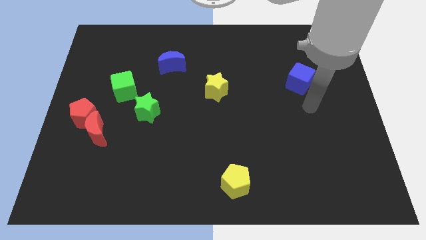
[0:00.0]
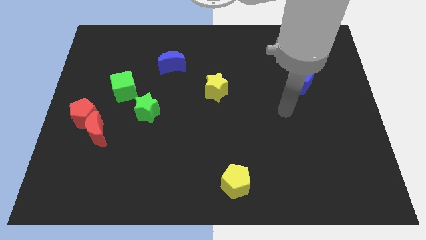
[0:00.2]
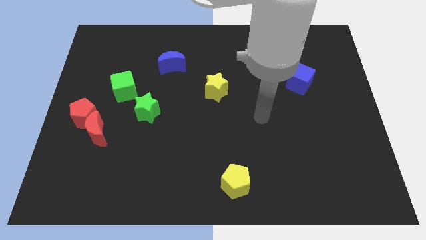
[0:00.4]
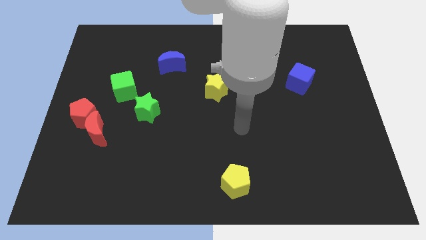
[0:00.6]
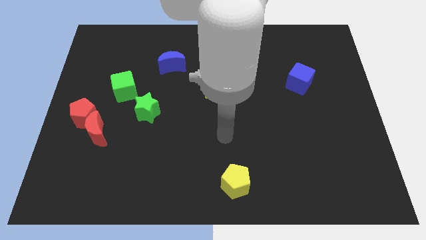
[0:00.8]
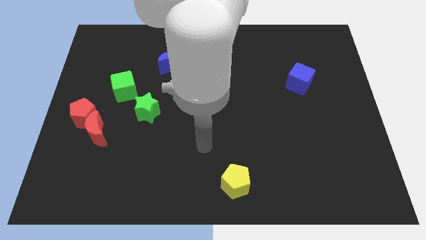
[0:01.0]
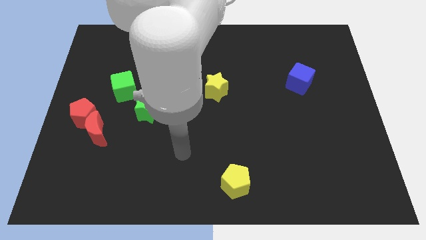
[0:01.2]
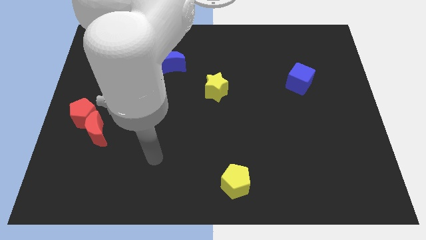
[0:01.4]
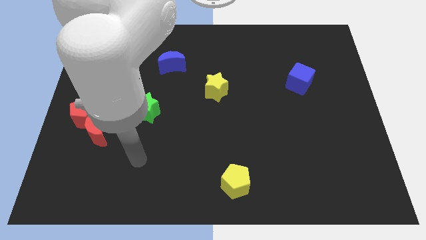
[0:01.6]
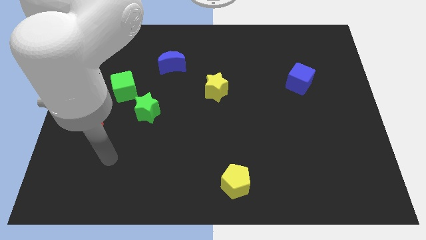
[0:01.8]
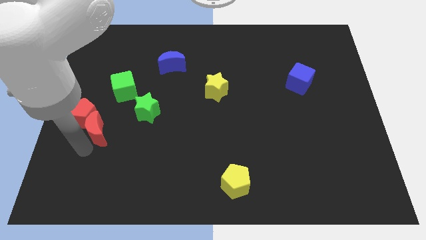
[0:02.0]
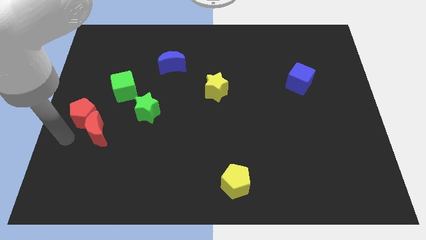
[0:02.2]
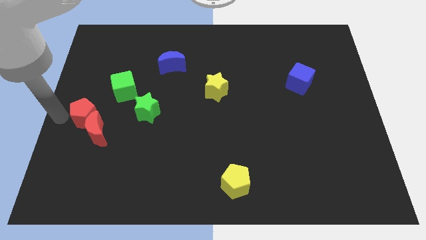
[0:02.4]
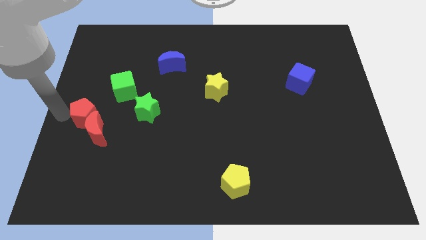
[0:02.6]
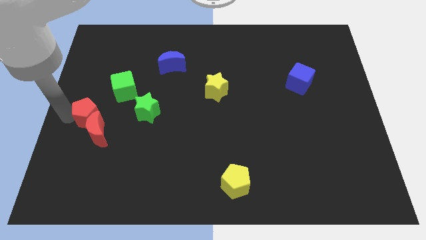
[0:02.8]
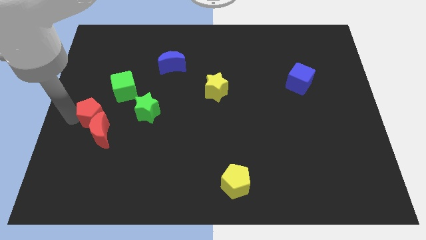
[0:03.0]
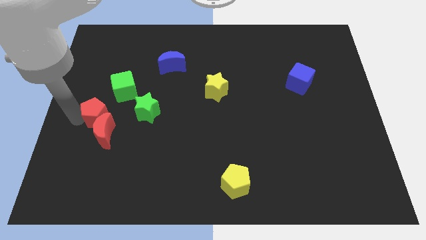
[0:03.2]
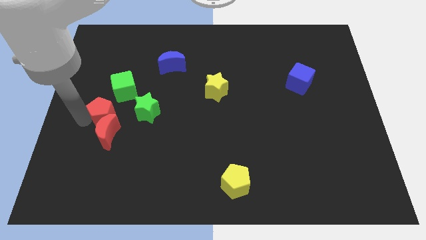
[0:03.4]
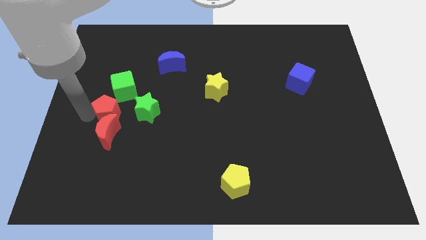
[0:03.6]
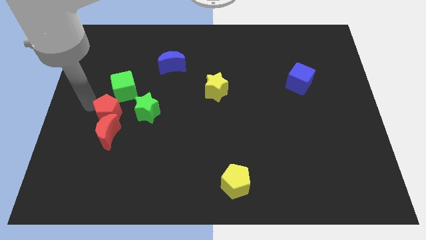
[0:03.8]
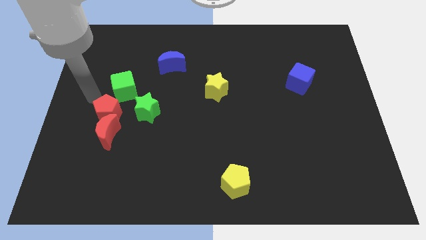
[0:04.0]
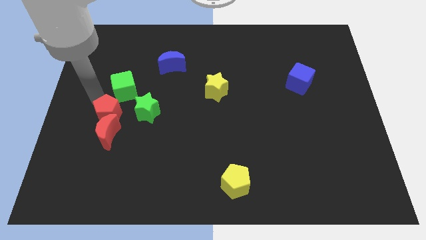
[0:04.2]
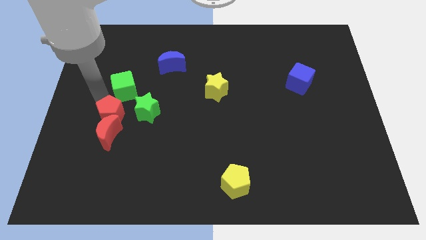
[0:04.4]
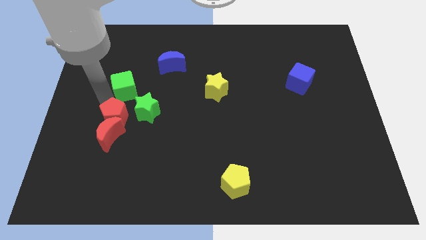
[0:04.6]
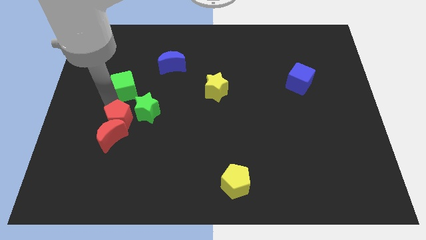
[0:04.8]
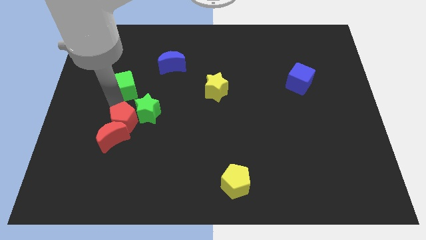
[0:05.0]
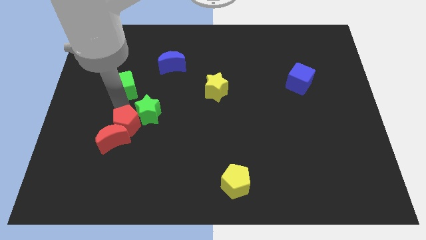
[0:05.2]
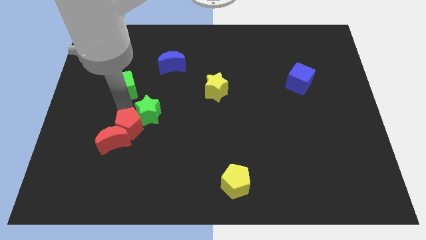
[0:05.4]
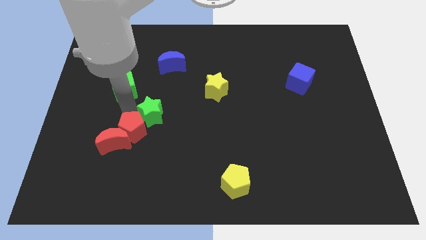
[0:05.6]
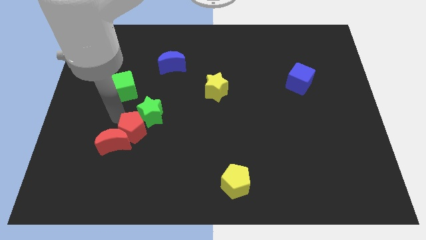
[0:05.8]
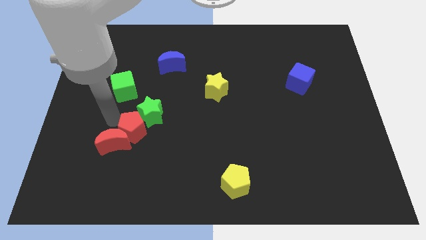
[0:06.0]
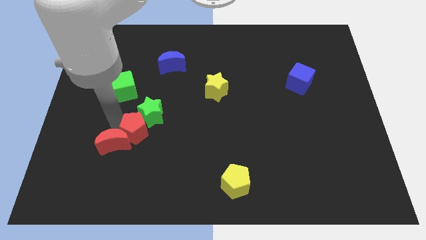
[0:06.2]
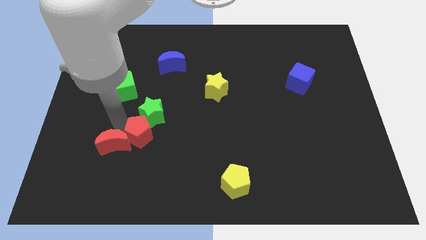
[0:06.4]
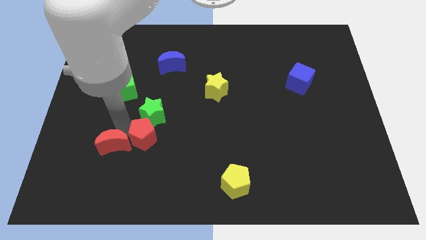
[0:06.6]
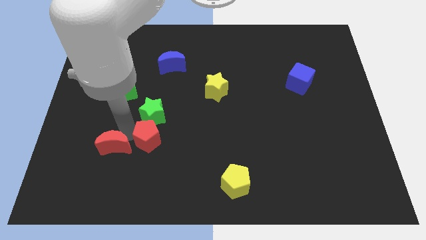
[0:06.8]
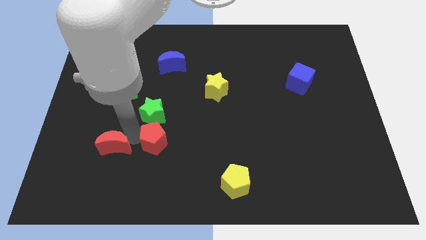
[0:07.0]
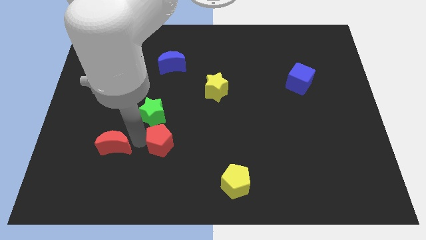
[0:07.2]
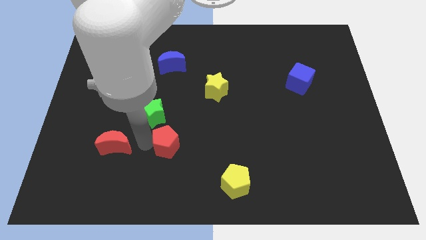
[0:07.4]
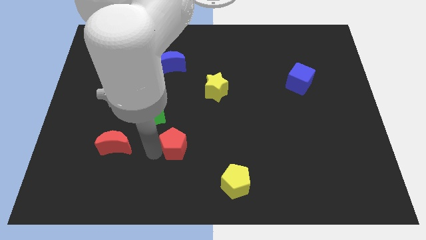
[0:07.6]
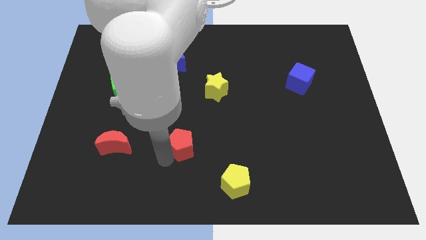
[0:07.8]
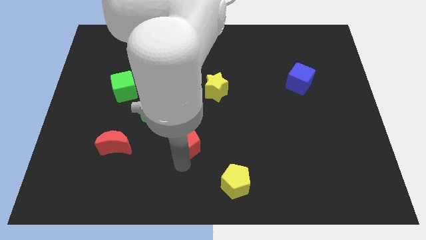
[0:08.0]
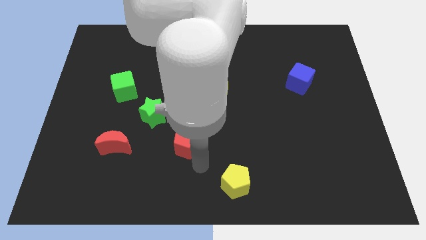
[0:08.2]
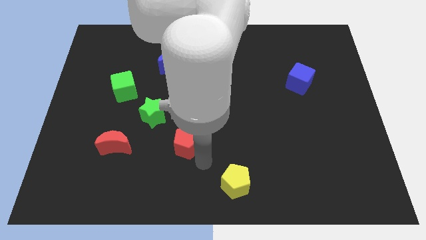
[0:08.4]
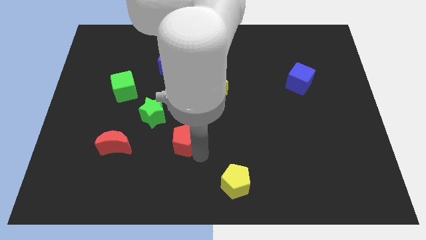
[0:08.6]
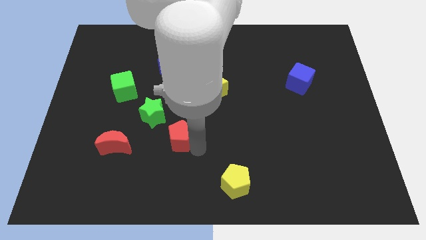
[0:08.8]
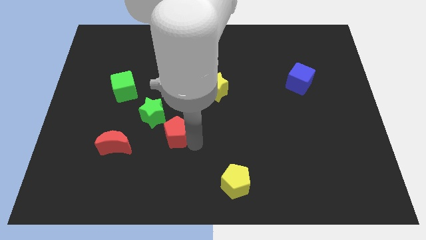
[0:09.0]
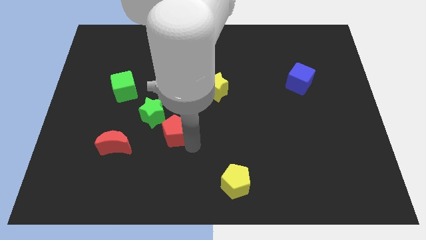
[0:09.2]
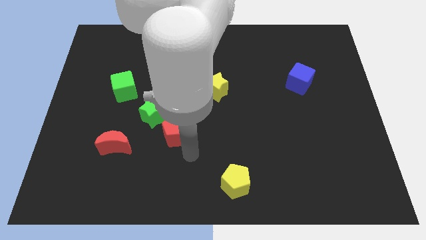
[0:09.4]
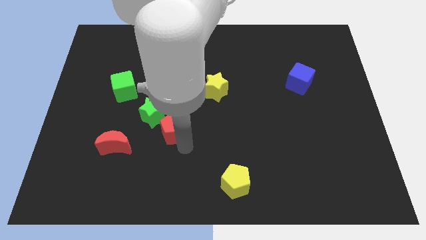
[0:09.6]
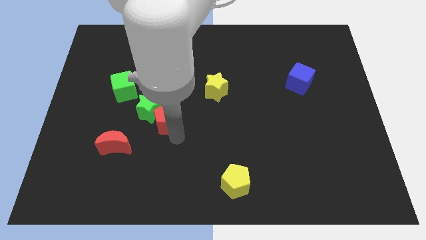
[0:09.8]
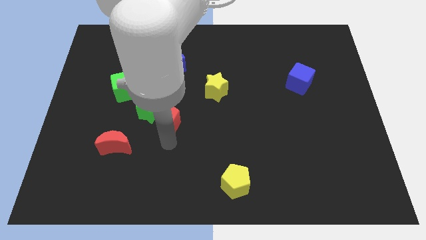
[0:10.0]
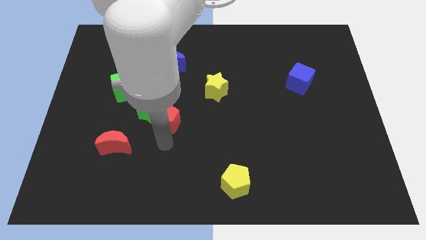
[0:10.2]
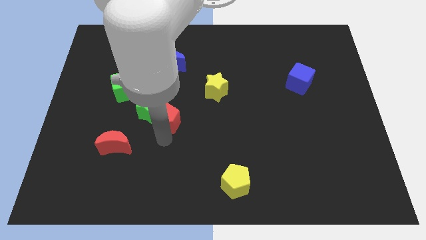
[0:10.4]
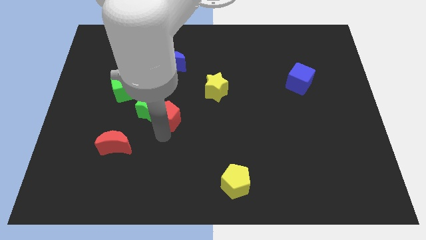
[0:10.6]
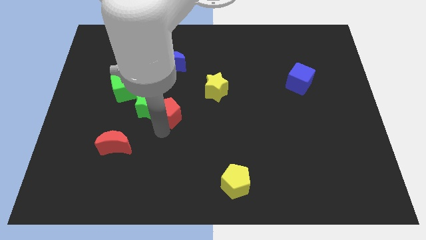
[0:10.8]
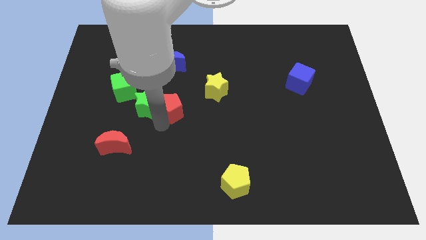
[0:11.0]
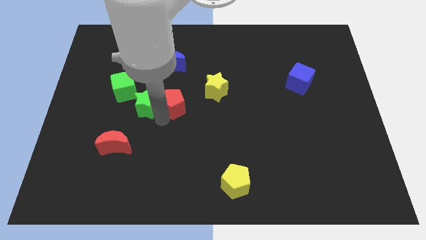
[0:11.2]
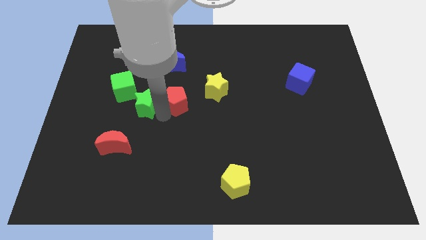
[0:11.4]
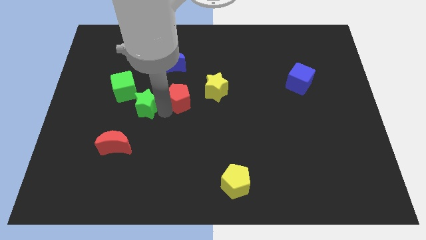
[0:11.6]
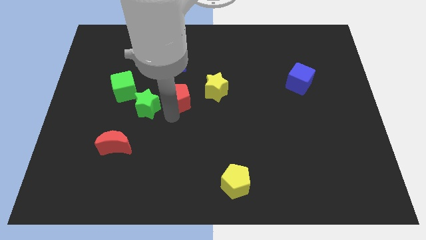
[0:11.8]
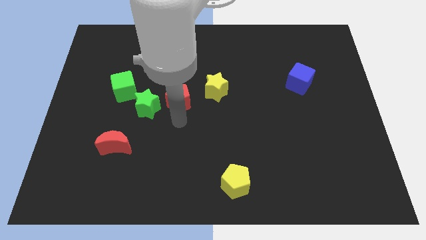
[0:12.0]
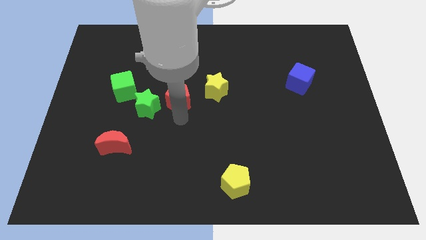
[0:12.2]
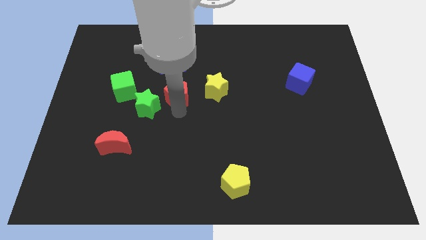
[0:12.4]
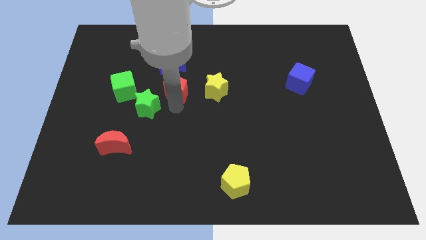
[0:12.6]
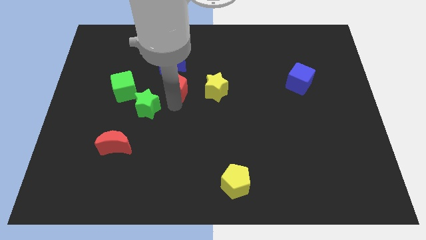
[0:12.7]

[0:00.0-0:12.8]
push the red pentagon diagonally down and to the right of the blue moon
